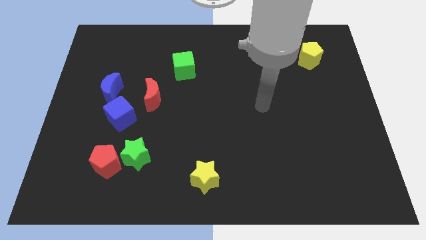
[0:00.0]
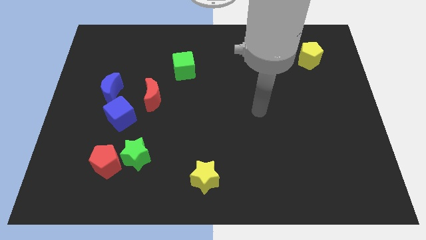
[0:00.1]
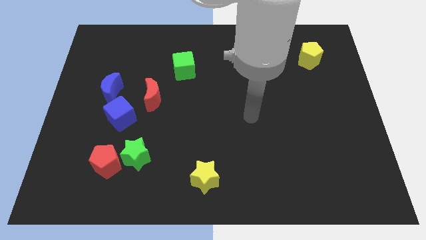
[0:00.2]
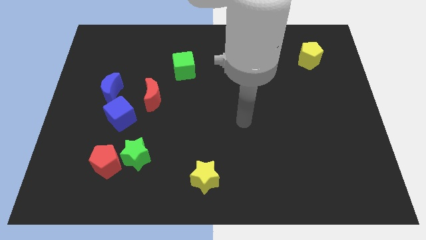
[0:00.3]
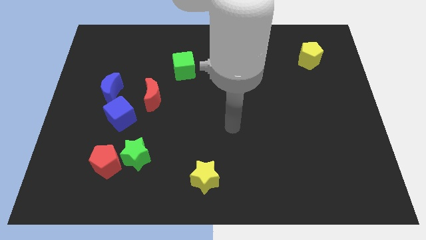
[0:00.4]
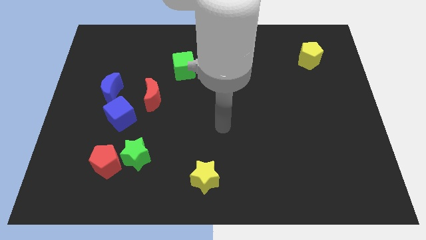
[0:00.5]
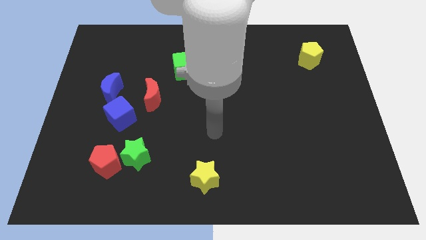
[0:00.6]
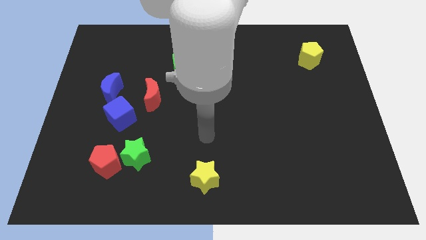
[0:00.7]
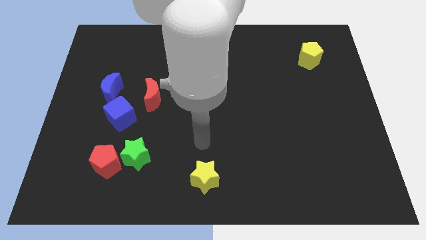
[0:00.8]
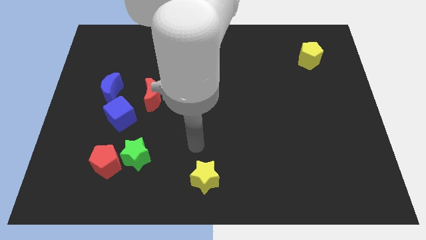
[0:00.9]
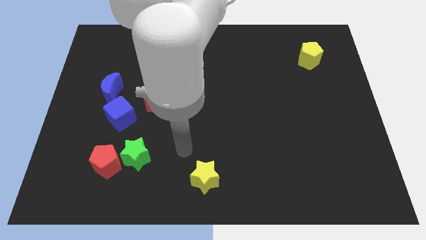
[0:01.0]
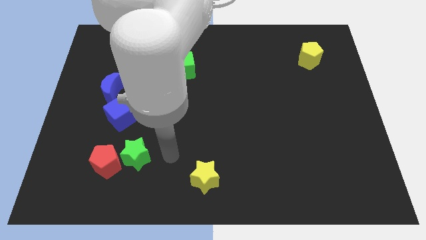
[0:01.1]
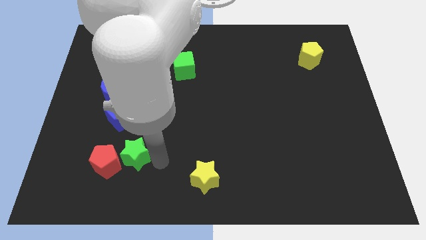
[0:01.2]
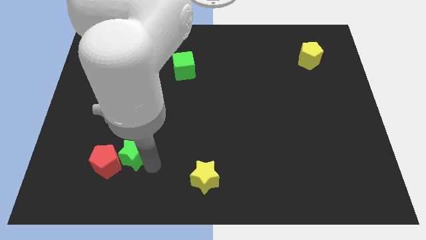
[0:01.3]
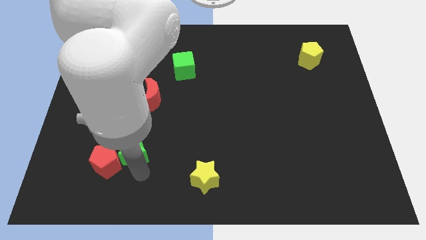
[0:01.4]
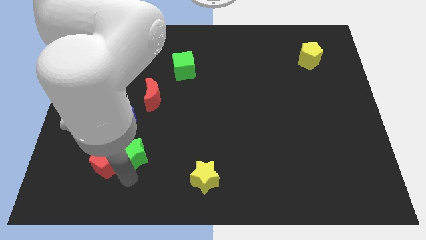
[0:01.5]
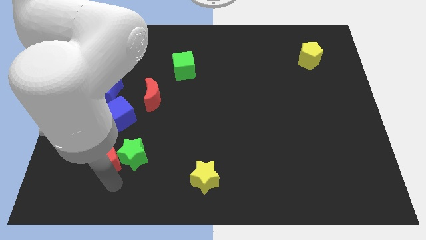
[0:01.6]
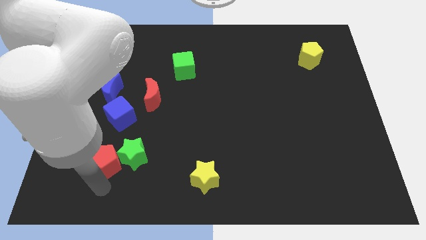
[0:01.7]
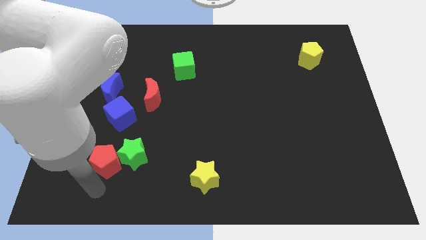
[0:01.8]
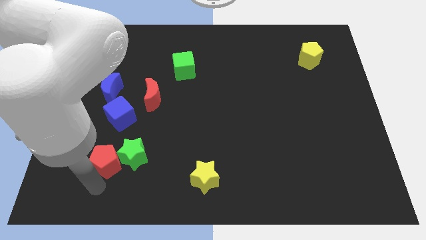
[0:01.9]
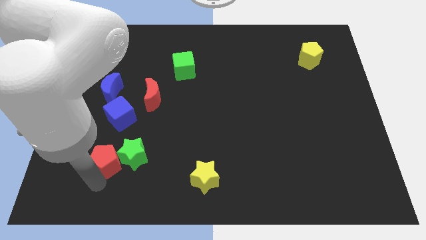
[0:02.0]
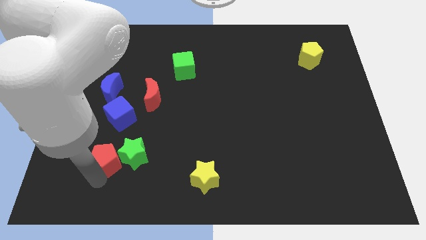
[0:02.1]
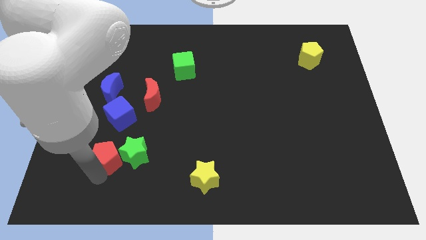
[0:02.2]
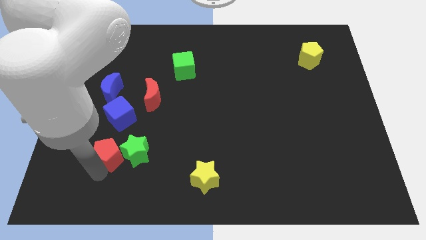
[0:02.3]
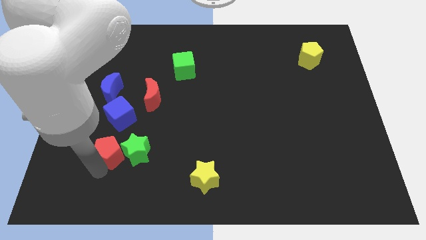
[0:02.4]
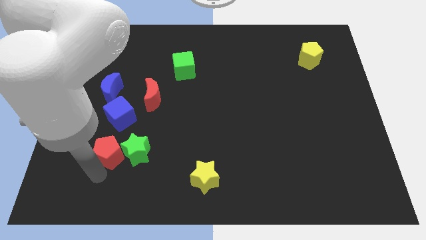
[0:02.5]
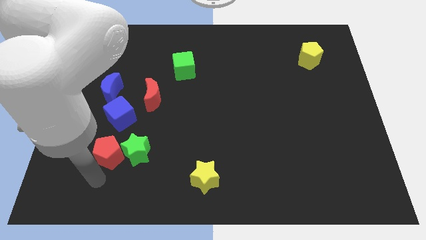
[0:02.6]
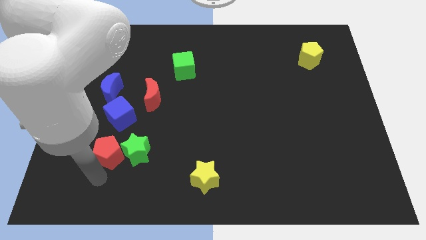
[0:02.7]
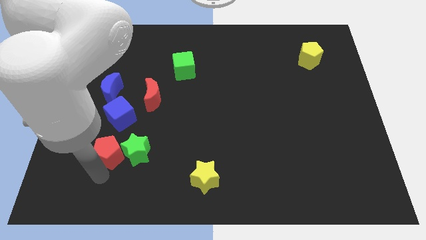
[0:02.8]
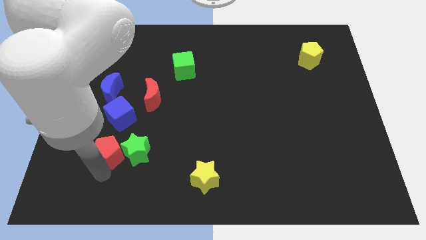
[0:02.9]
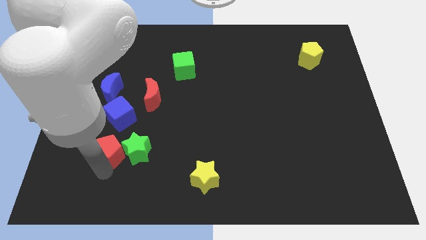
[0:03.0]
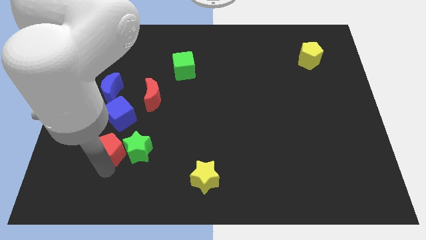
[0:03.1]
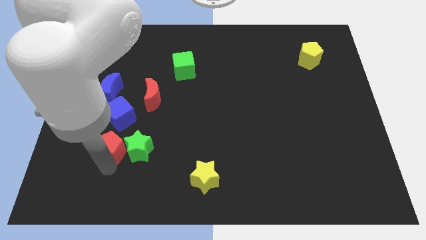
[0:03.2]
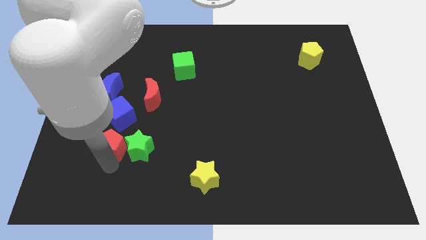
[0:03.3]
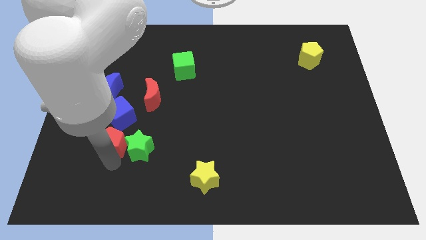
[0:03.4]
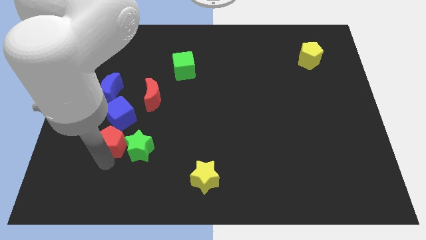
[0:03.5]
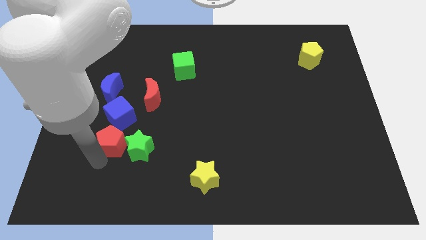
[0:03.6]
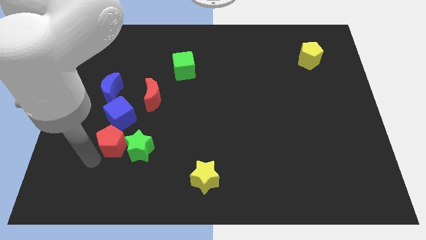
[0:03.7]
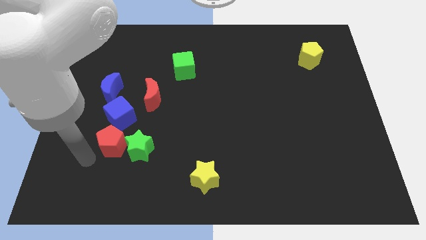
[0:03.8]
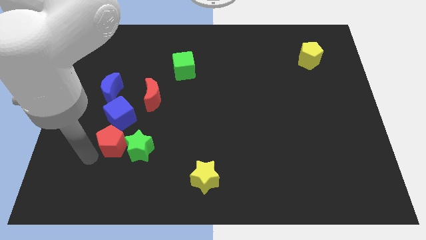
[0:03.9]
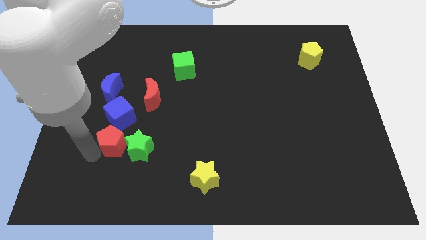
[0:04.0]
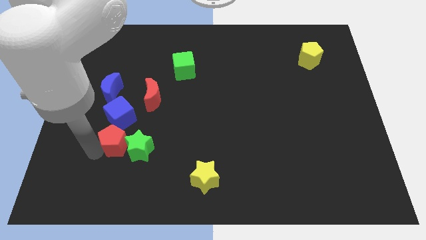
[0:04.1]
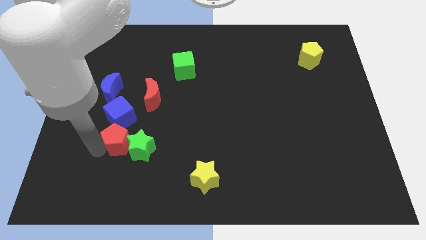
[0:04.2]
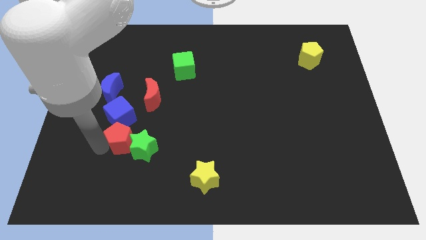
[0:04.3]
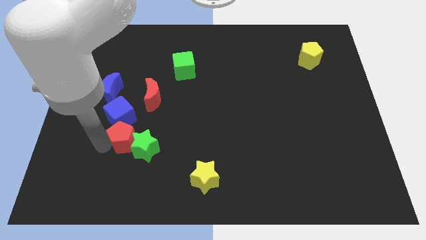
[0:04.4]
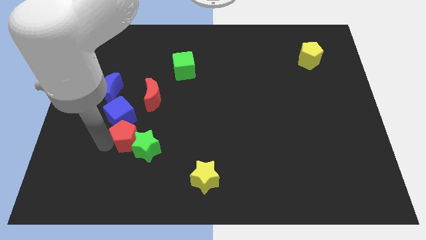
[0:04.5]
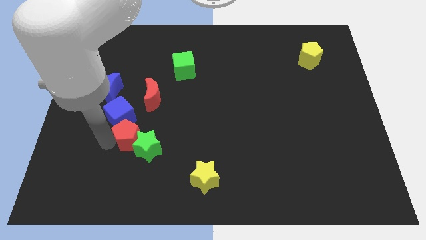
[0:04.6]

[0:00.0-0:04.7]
slide the red pentagon up and then to the right a bit

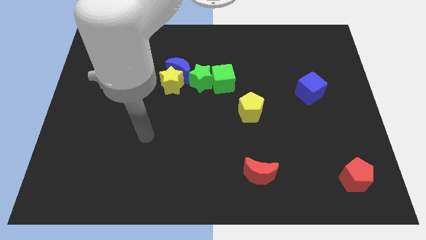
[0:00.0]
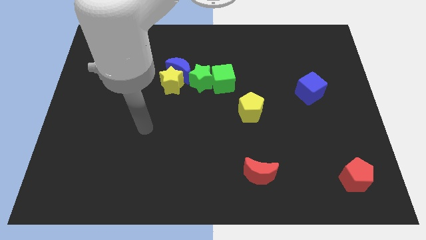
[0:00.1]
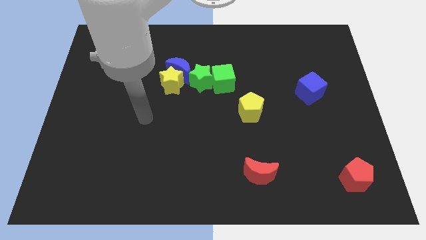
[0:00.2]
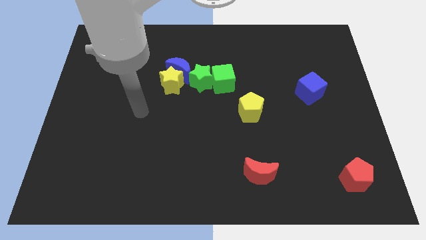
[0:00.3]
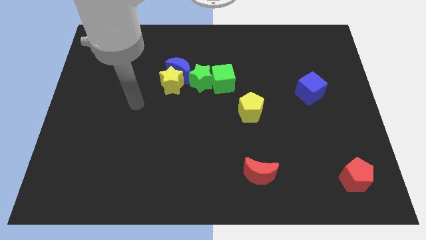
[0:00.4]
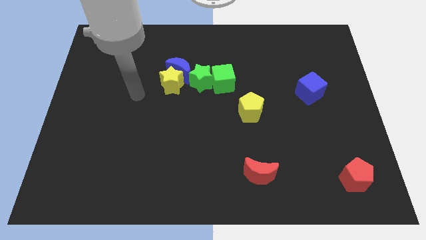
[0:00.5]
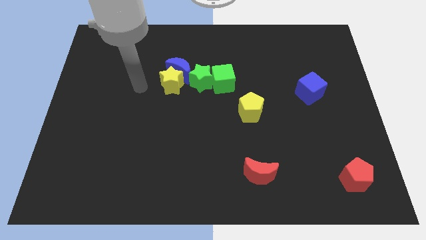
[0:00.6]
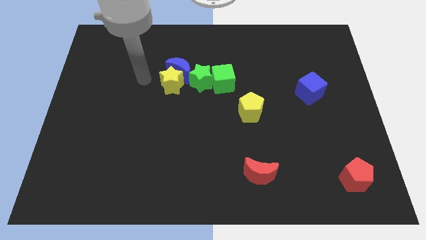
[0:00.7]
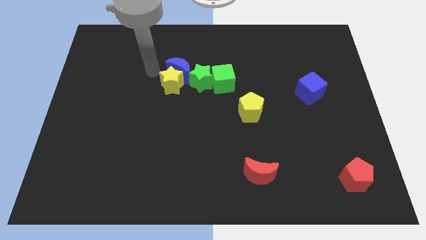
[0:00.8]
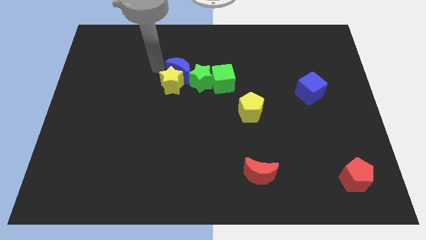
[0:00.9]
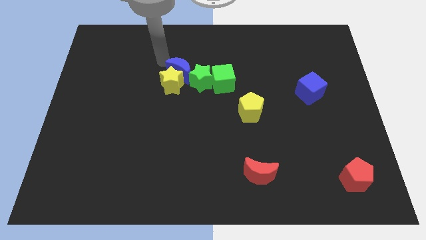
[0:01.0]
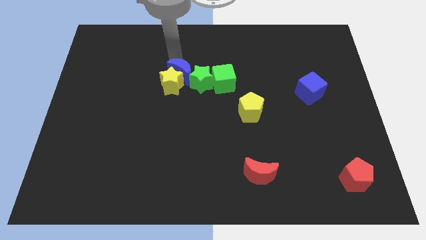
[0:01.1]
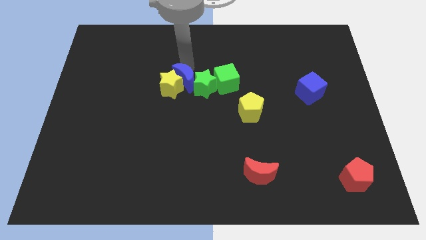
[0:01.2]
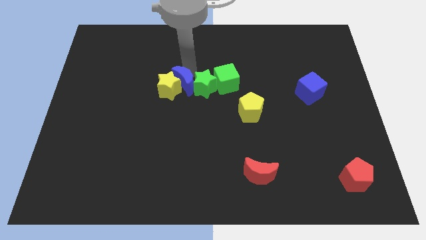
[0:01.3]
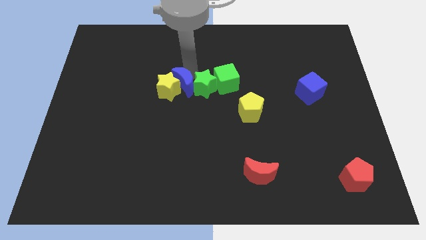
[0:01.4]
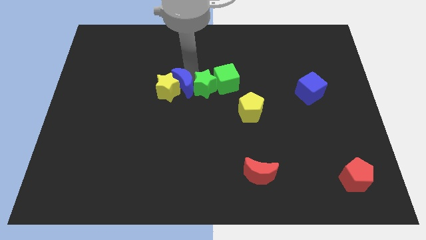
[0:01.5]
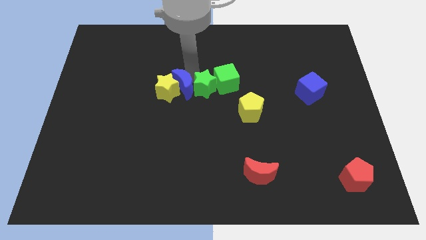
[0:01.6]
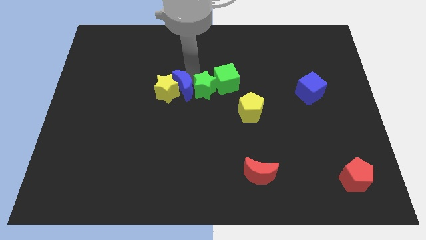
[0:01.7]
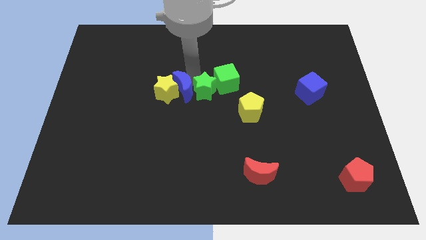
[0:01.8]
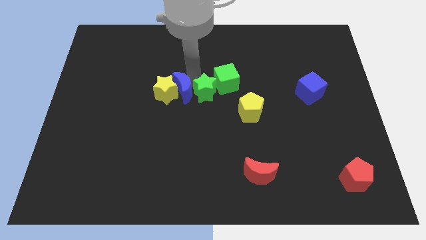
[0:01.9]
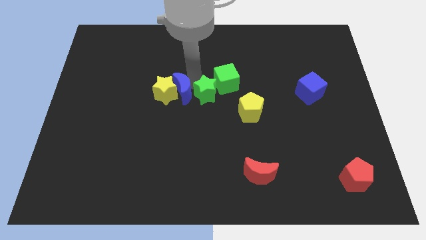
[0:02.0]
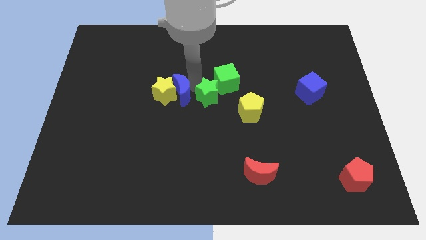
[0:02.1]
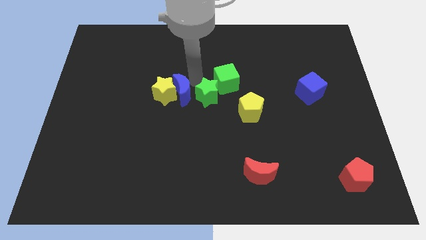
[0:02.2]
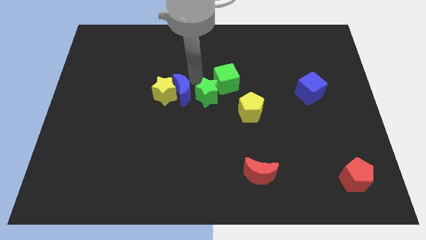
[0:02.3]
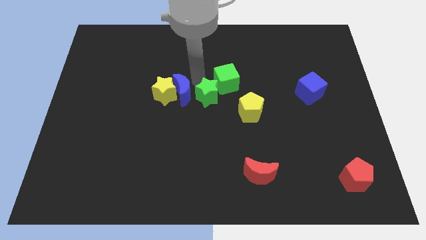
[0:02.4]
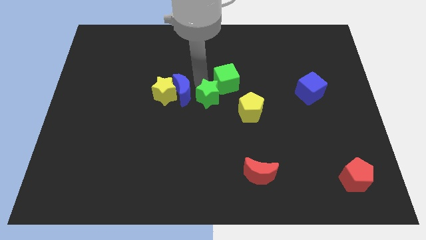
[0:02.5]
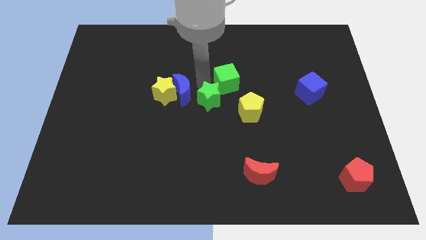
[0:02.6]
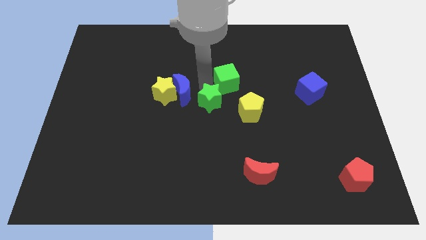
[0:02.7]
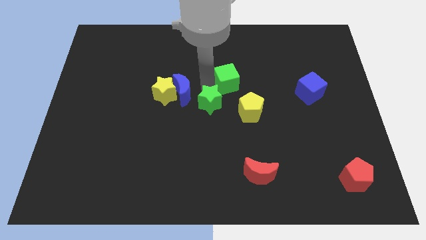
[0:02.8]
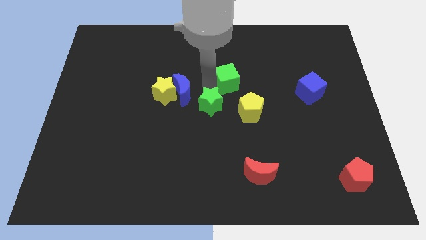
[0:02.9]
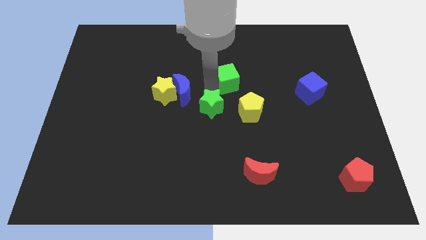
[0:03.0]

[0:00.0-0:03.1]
push the green star diagonally downwards and to the right a little bit
